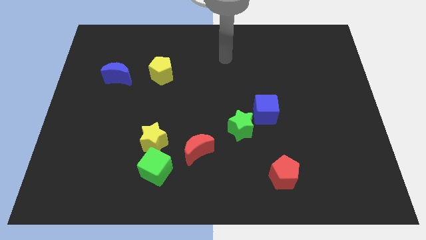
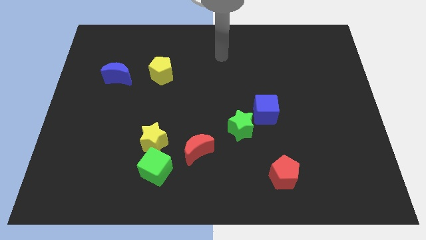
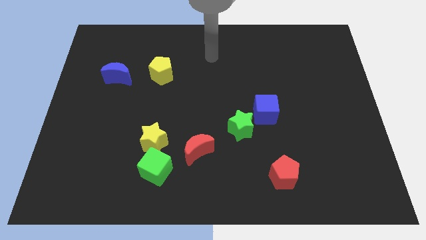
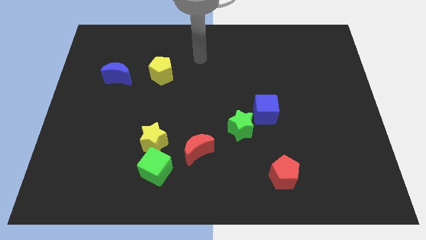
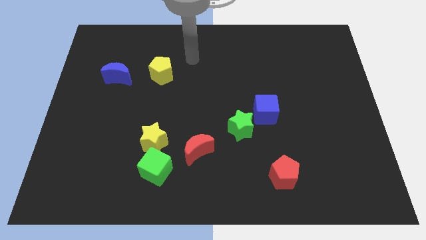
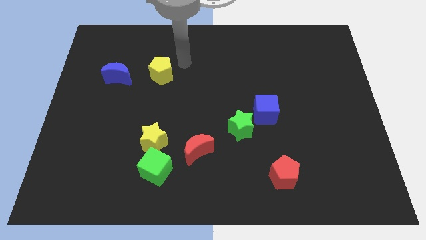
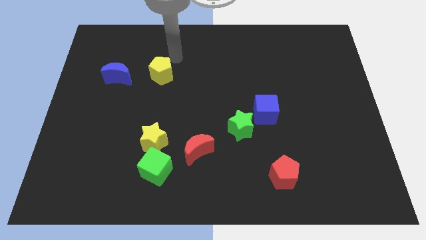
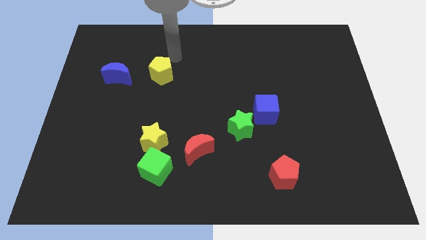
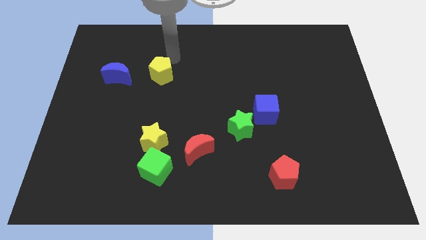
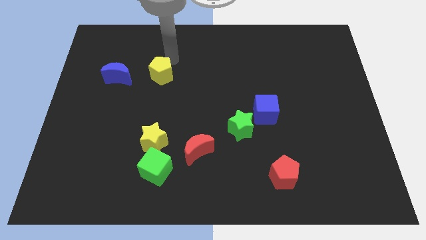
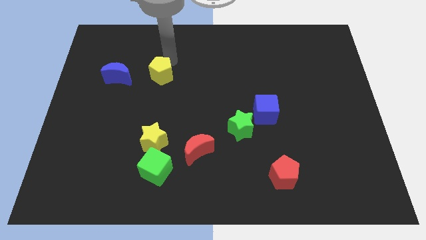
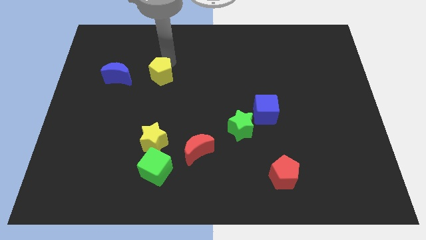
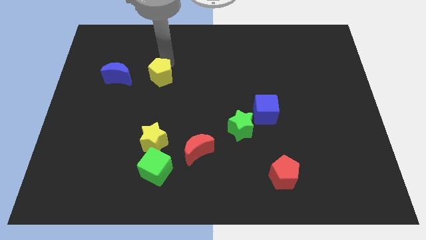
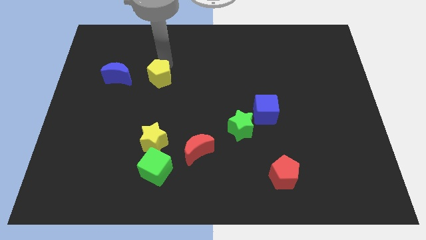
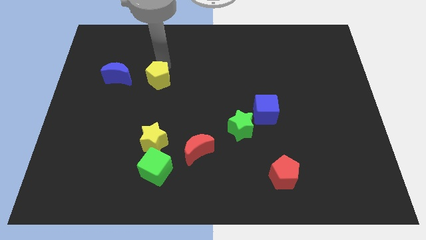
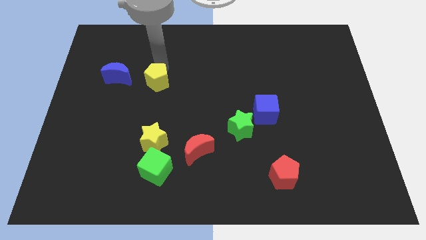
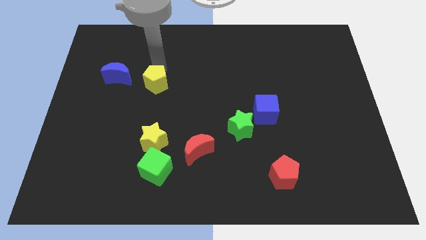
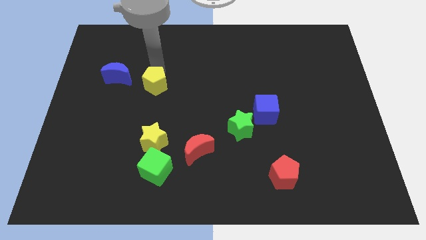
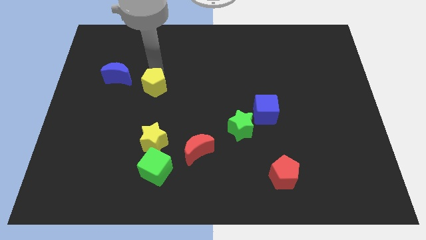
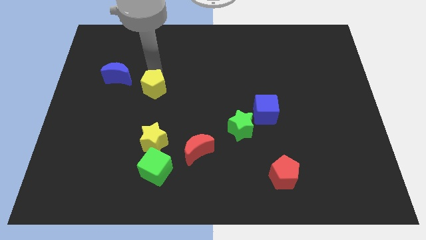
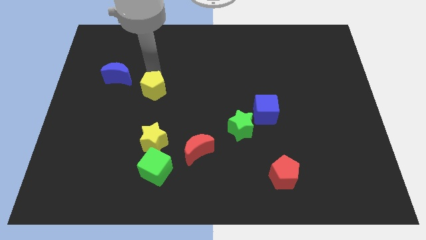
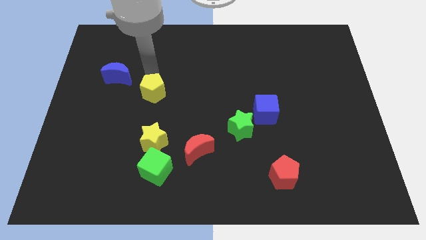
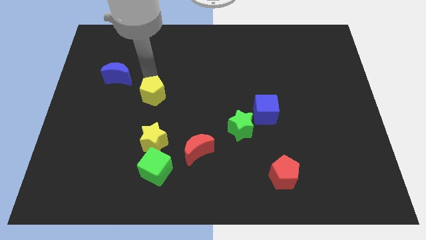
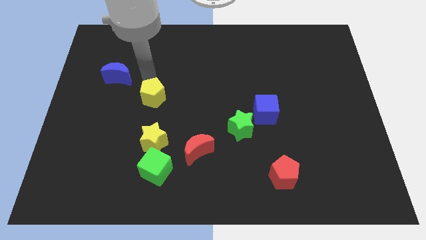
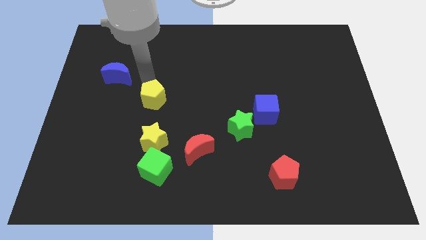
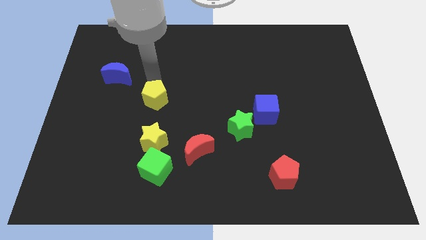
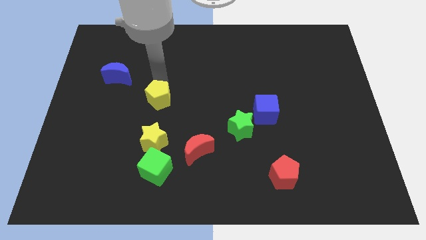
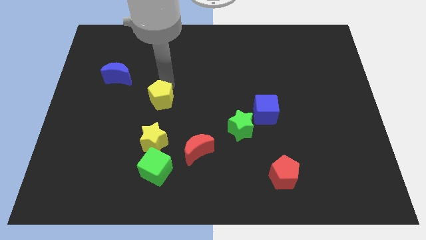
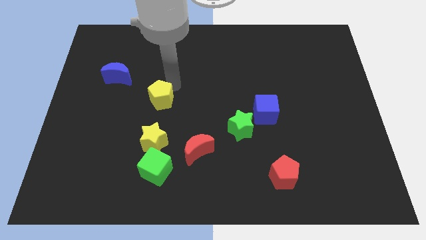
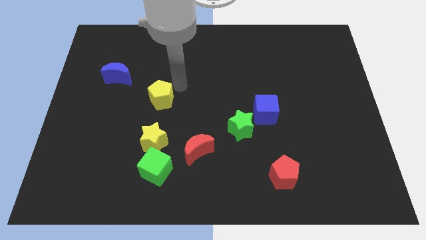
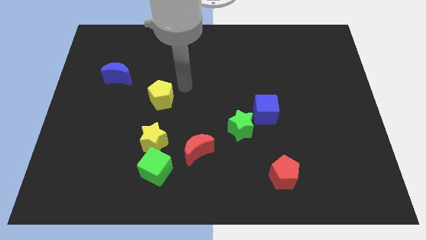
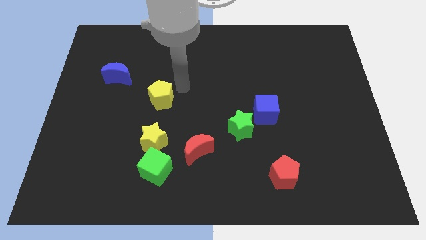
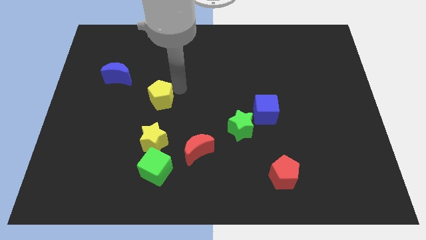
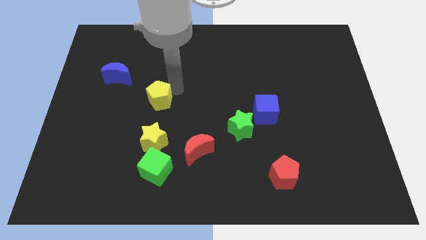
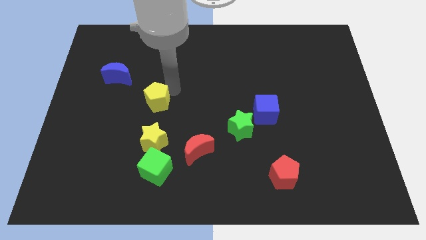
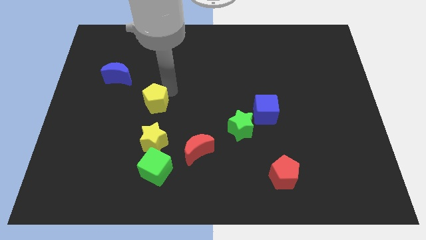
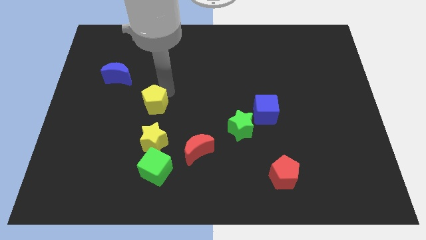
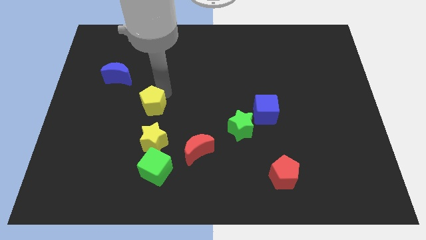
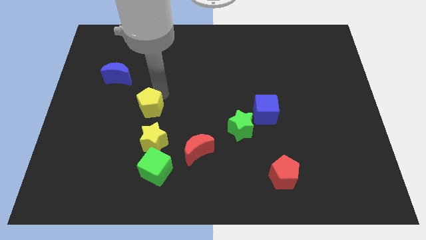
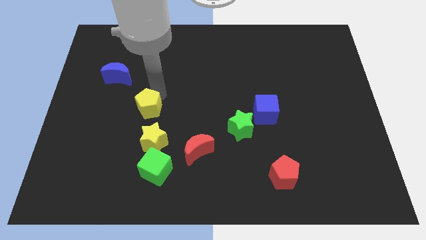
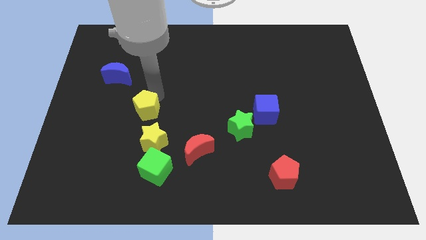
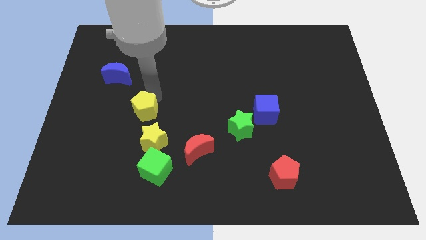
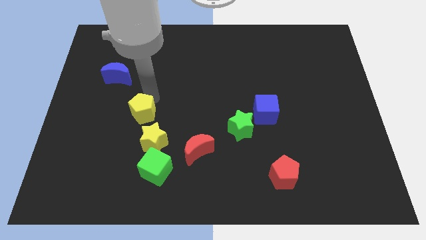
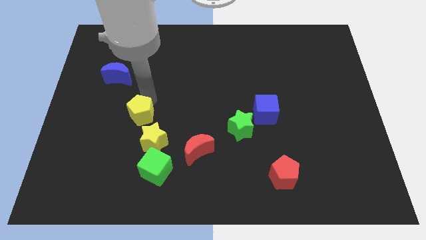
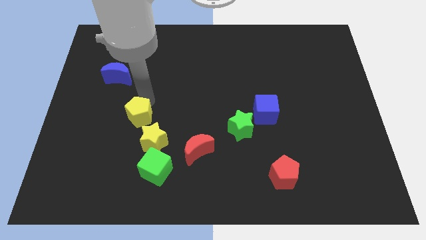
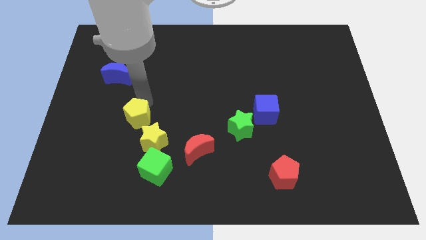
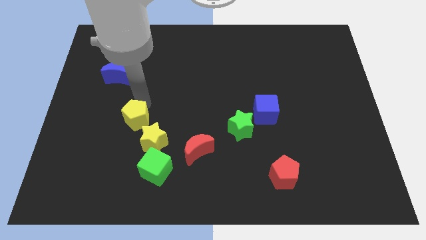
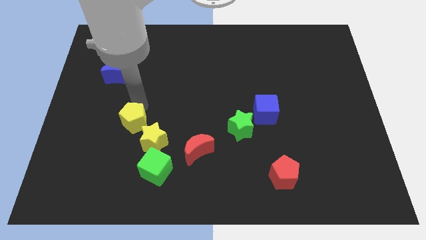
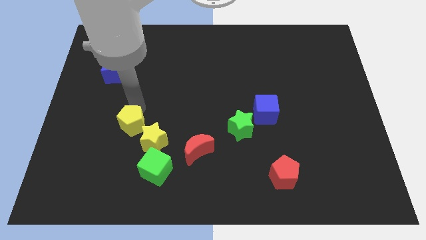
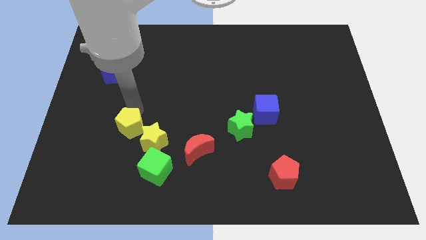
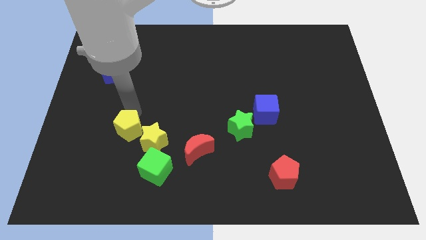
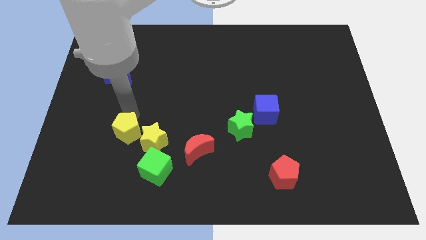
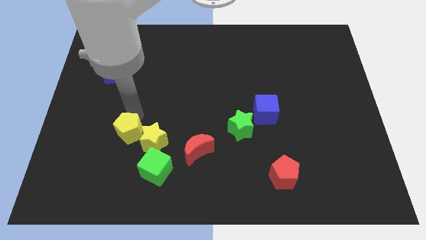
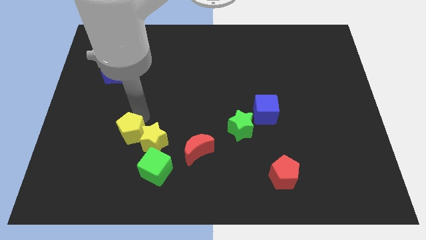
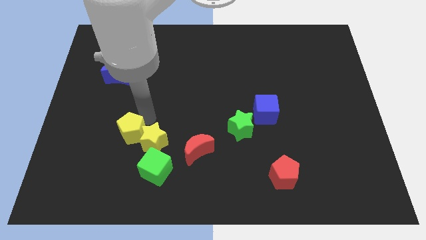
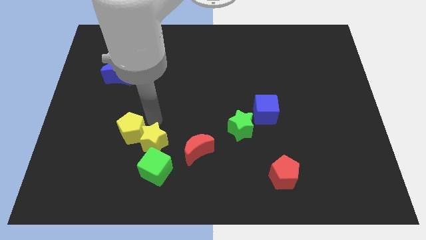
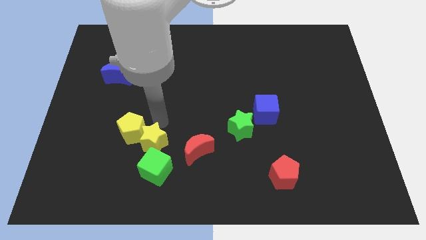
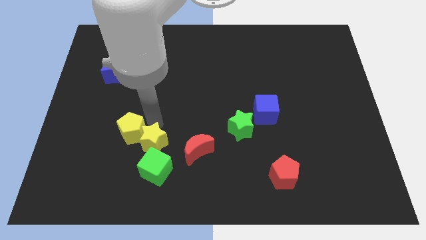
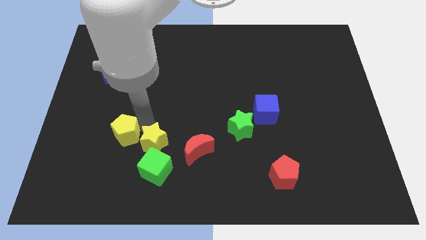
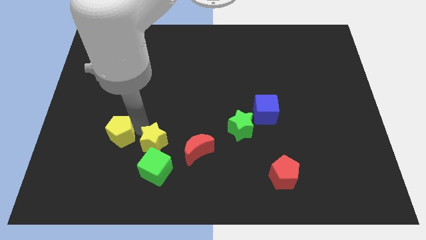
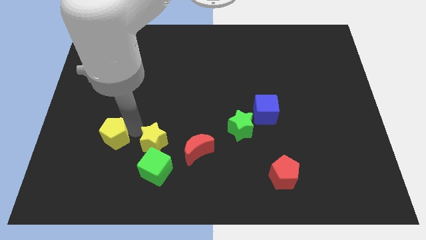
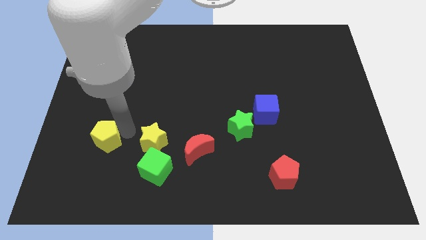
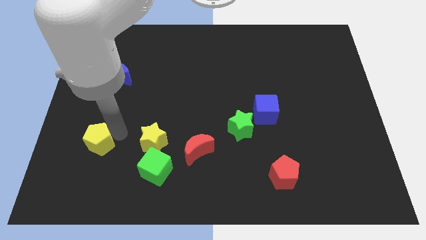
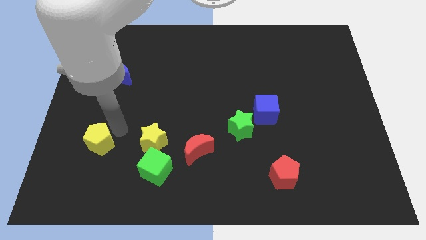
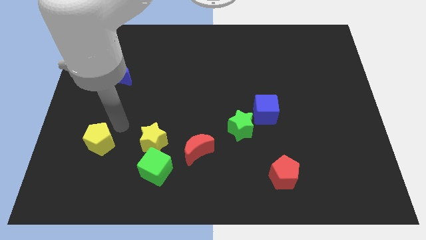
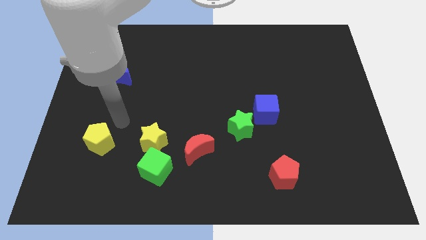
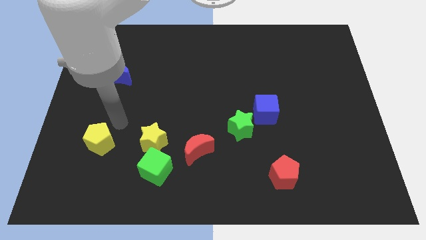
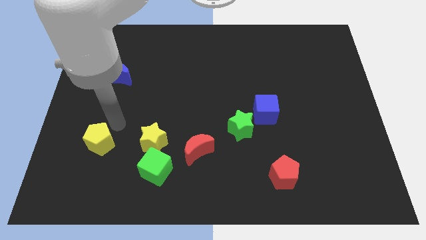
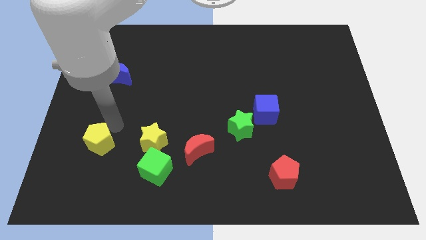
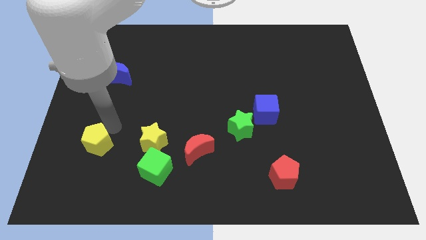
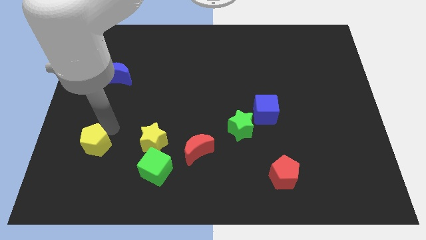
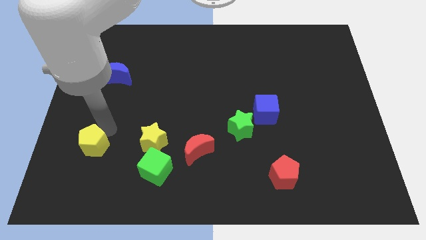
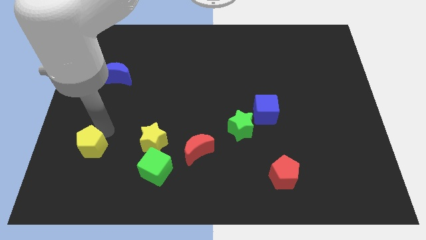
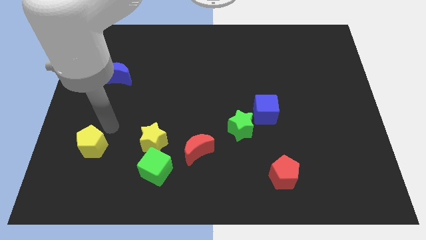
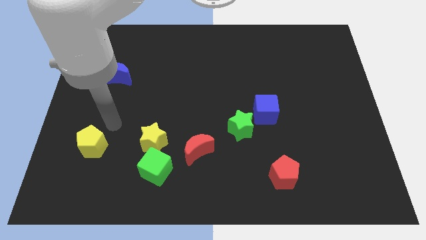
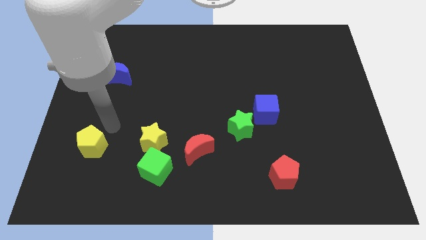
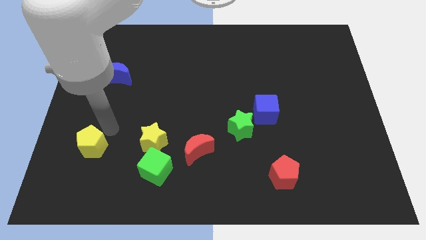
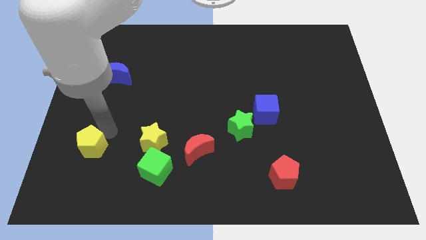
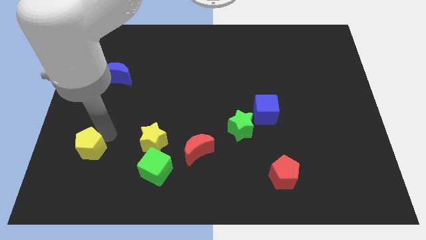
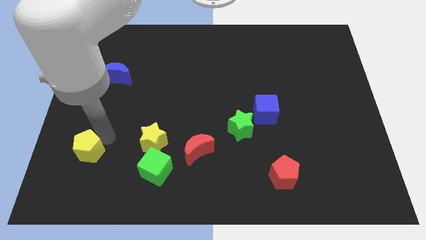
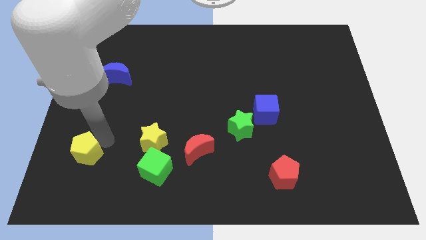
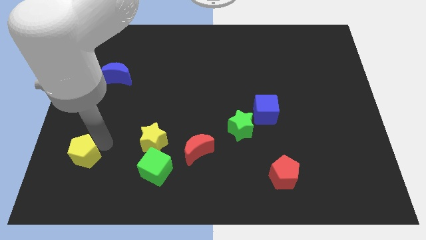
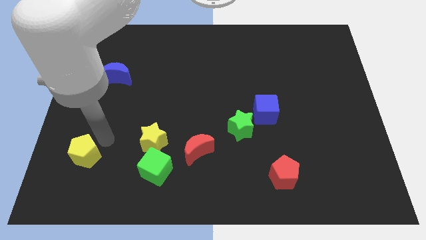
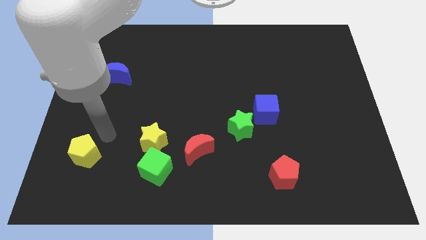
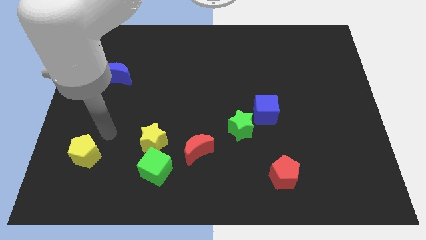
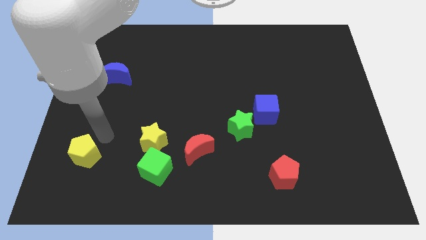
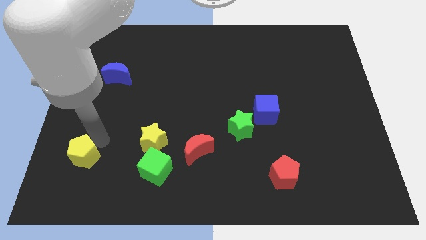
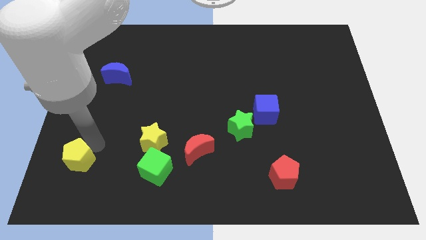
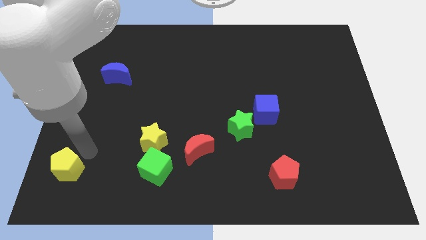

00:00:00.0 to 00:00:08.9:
slide the yellow pentagon to the bottom left of the board
